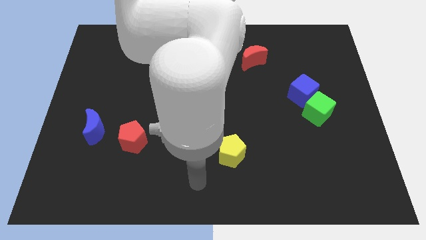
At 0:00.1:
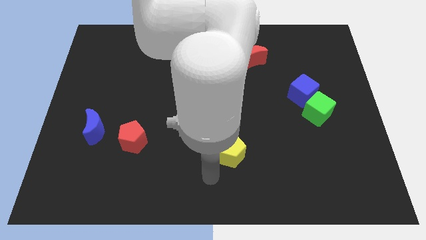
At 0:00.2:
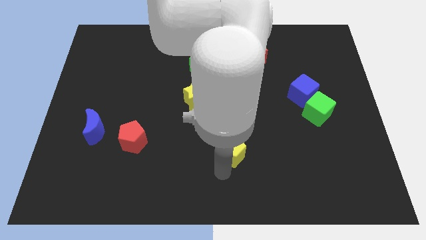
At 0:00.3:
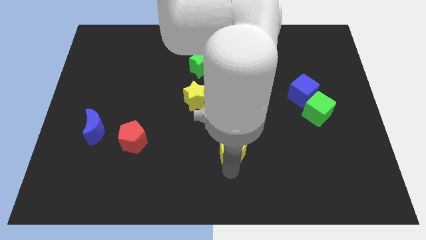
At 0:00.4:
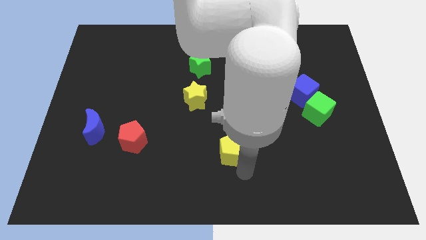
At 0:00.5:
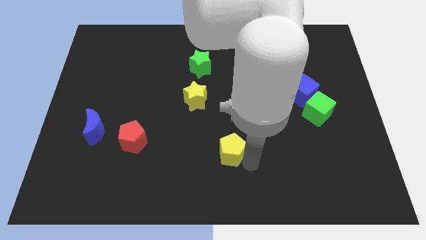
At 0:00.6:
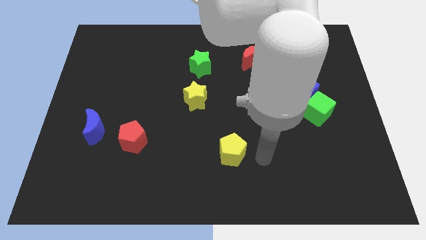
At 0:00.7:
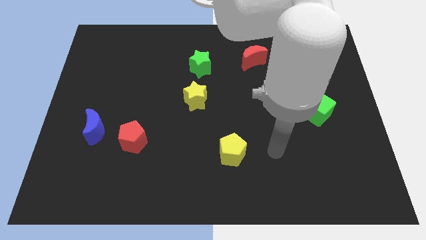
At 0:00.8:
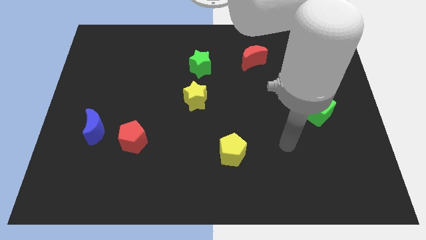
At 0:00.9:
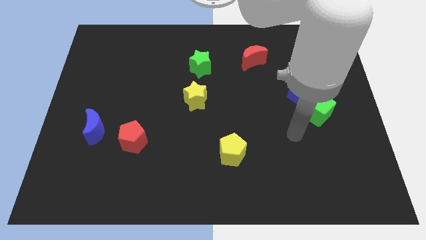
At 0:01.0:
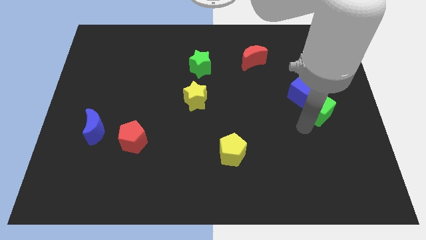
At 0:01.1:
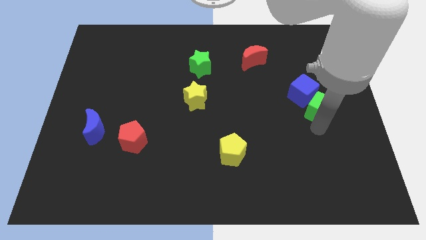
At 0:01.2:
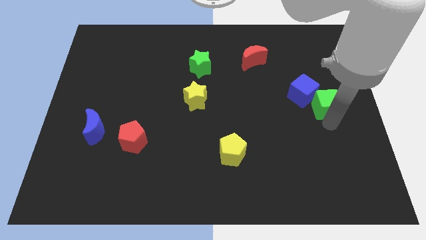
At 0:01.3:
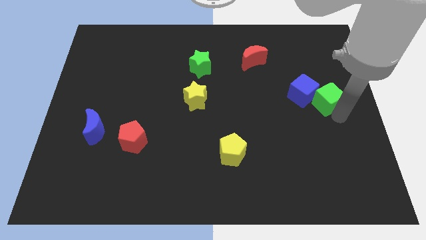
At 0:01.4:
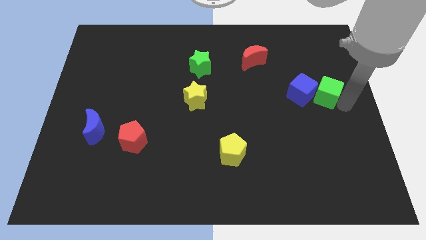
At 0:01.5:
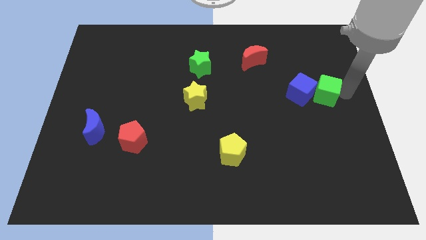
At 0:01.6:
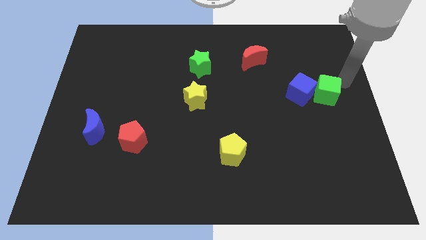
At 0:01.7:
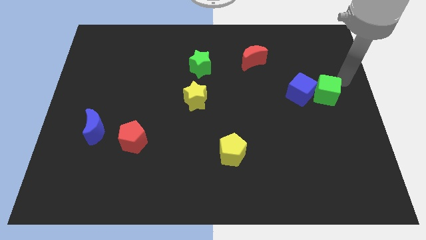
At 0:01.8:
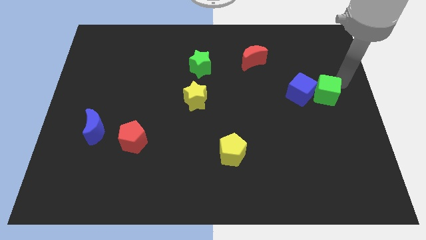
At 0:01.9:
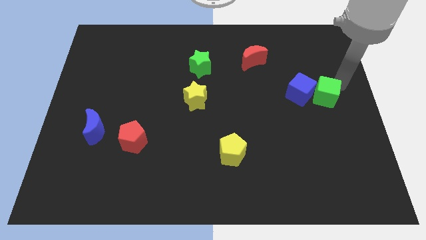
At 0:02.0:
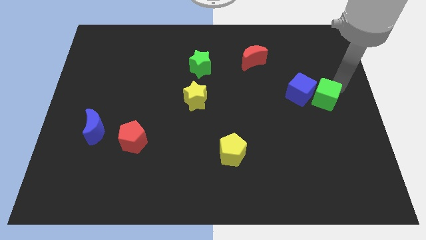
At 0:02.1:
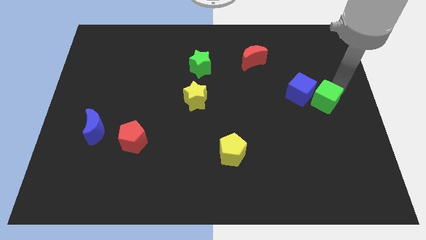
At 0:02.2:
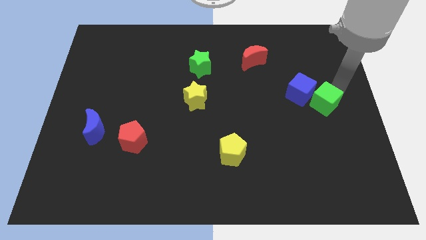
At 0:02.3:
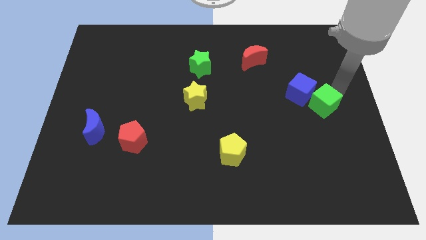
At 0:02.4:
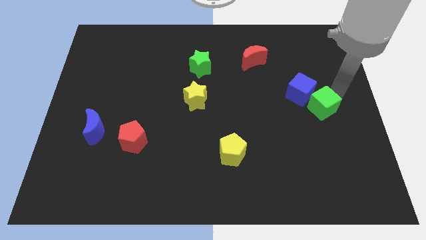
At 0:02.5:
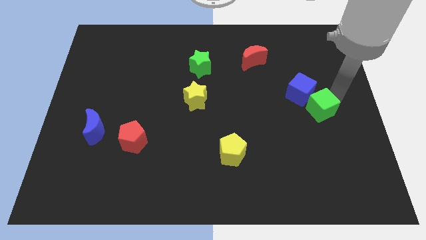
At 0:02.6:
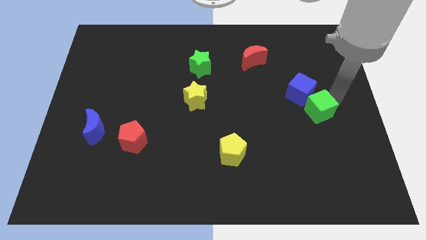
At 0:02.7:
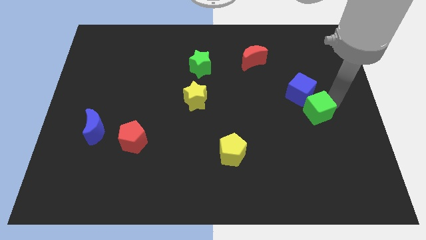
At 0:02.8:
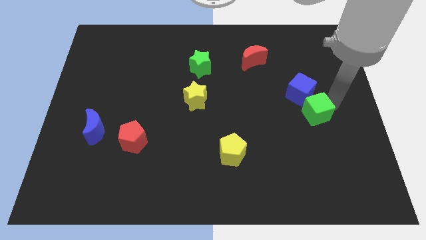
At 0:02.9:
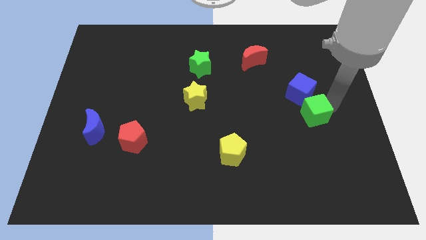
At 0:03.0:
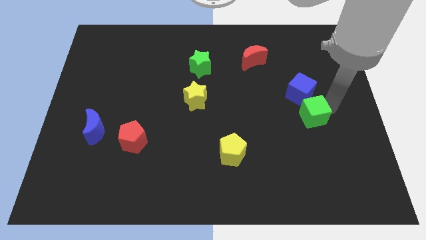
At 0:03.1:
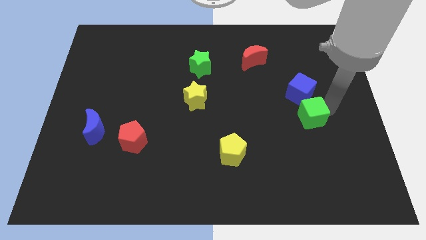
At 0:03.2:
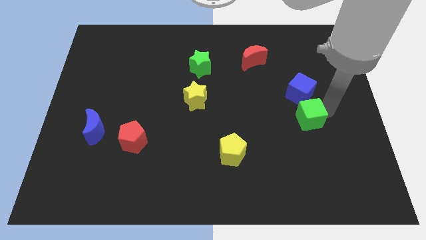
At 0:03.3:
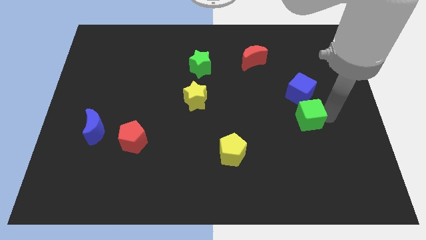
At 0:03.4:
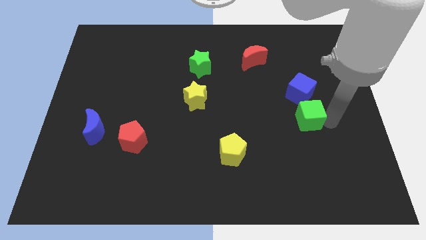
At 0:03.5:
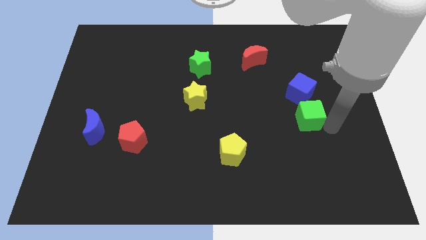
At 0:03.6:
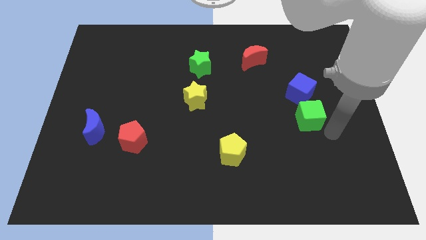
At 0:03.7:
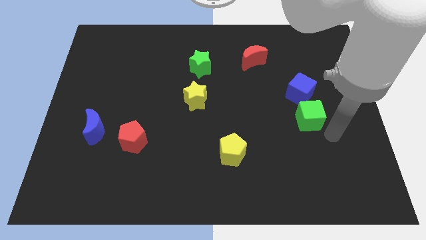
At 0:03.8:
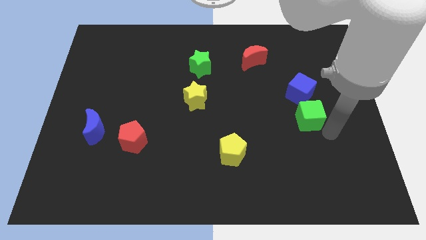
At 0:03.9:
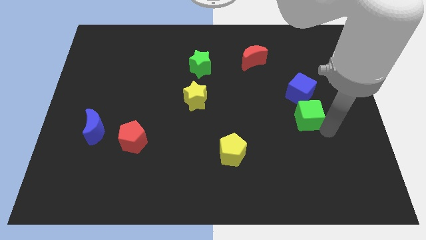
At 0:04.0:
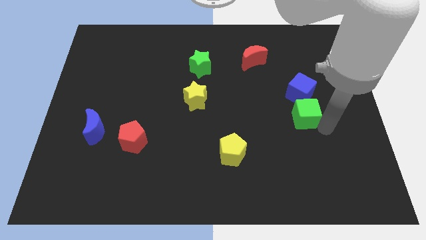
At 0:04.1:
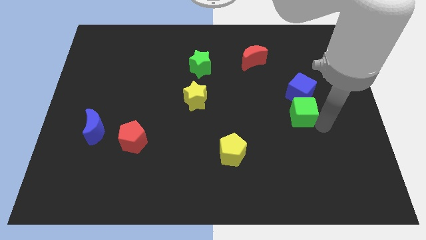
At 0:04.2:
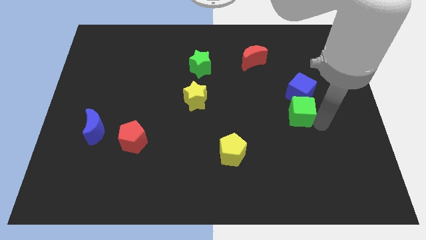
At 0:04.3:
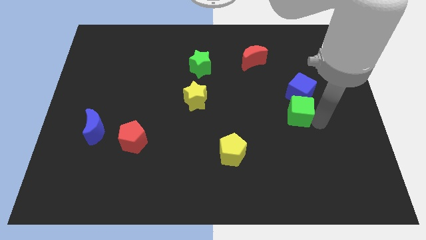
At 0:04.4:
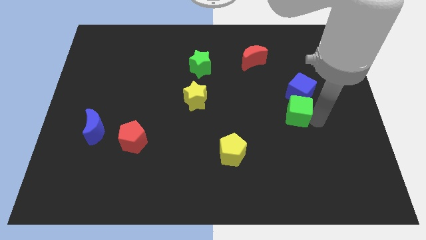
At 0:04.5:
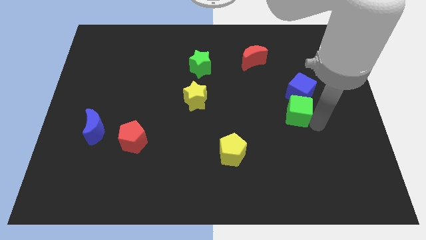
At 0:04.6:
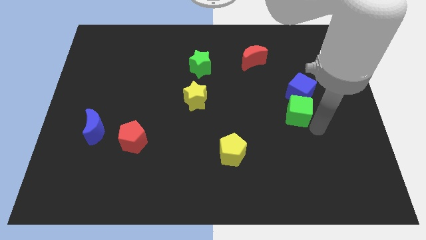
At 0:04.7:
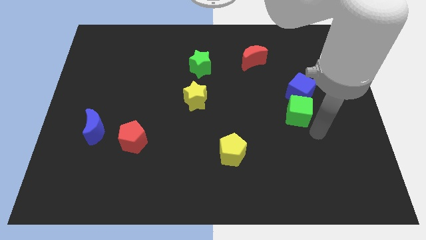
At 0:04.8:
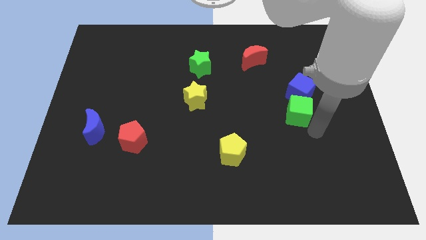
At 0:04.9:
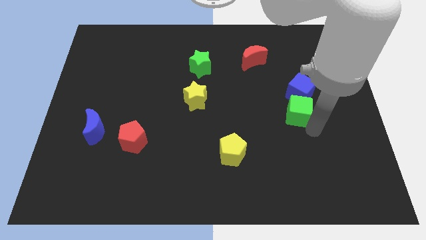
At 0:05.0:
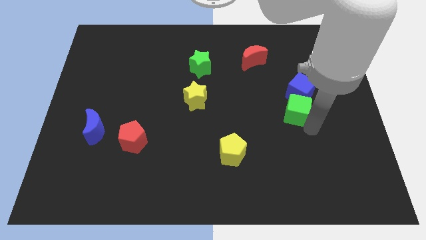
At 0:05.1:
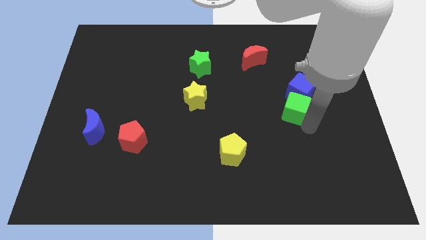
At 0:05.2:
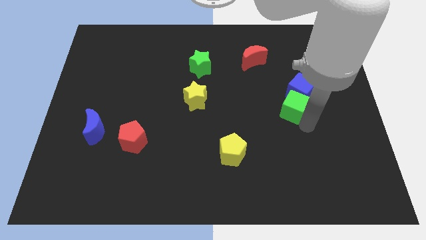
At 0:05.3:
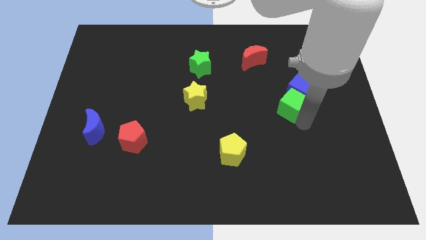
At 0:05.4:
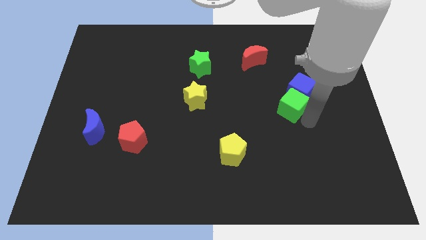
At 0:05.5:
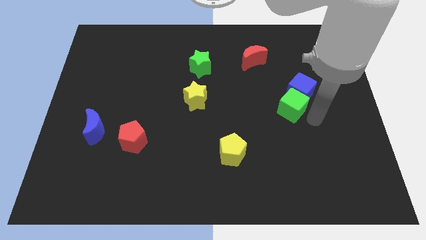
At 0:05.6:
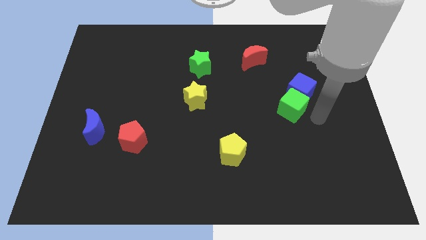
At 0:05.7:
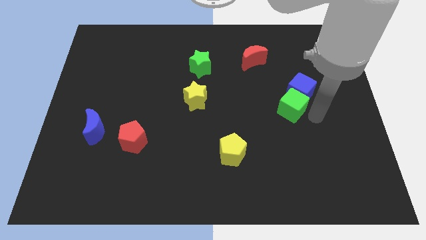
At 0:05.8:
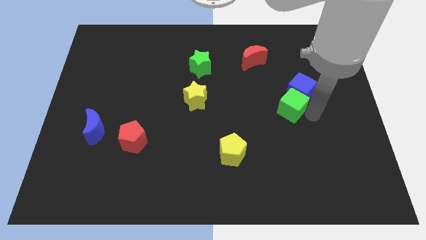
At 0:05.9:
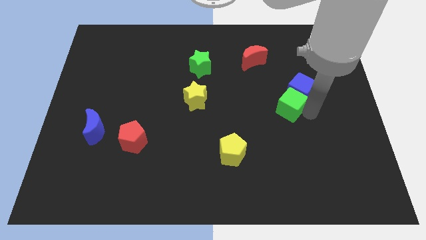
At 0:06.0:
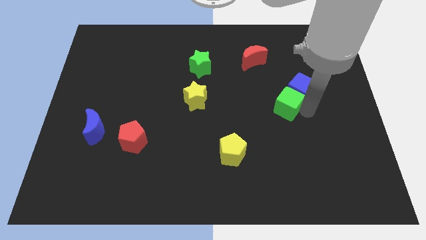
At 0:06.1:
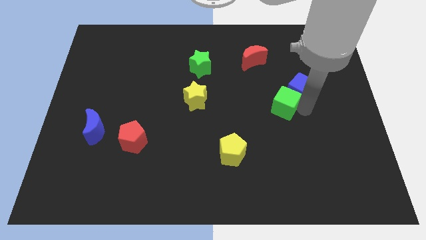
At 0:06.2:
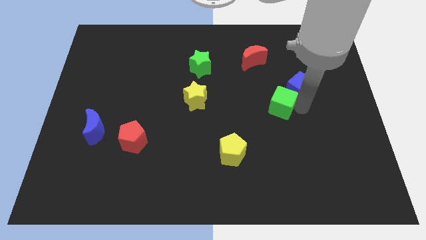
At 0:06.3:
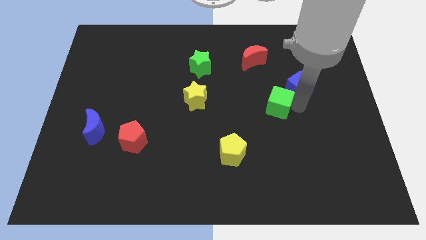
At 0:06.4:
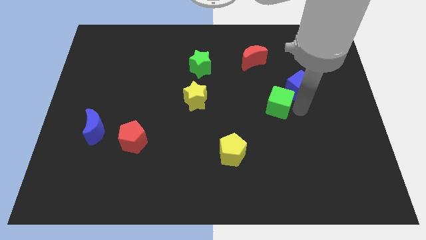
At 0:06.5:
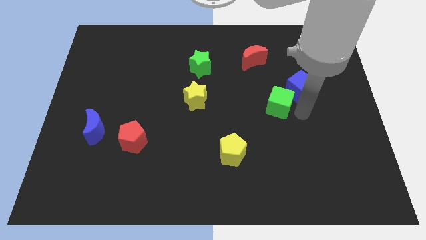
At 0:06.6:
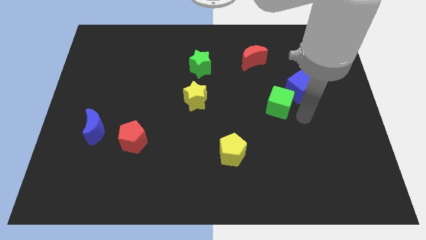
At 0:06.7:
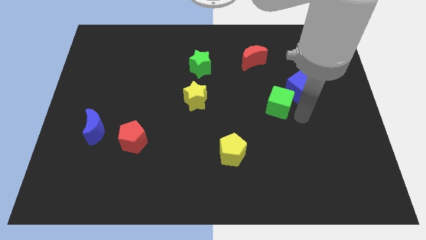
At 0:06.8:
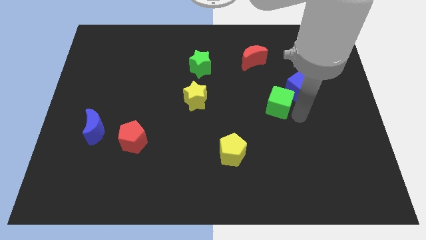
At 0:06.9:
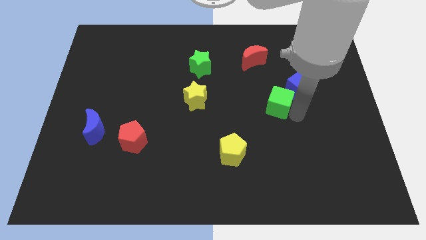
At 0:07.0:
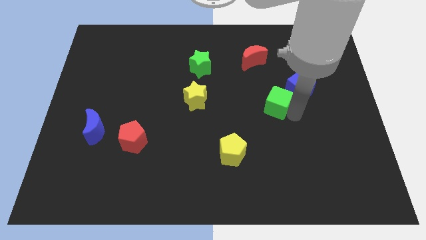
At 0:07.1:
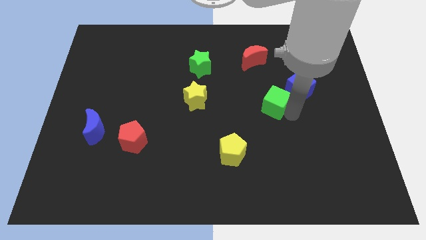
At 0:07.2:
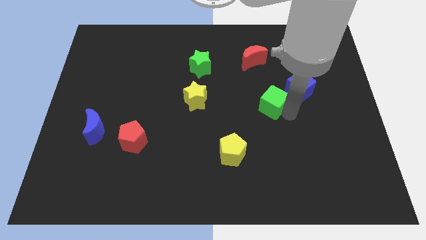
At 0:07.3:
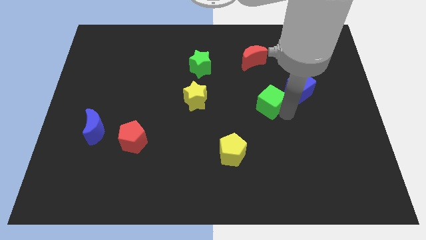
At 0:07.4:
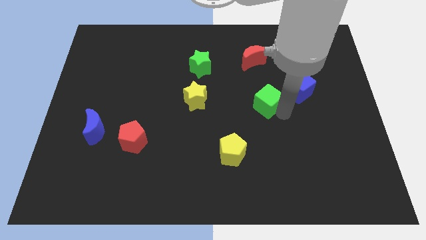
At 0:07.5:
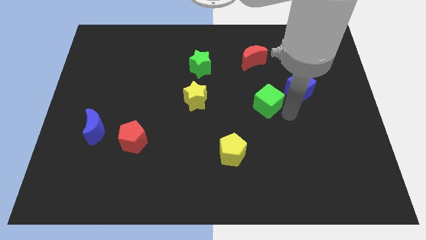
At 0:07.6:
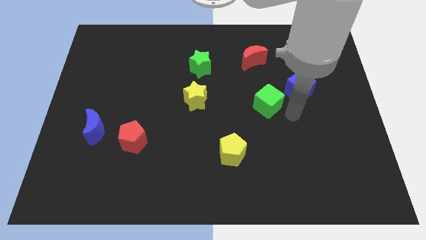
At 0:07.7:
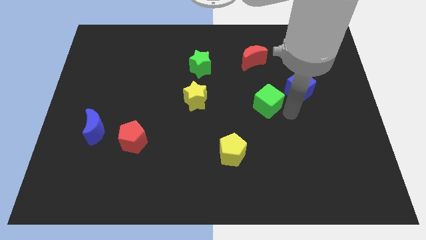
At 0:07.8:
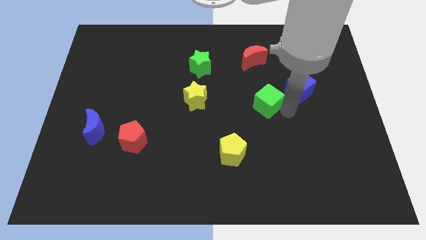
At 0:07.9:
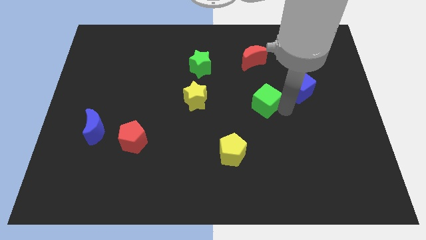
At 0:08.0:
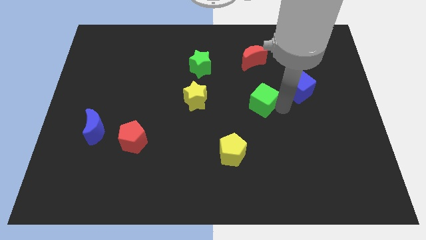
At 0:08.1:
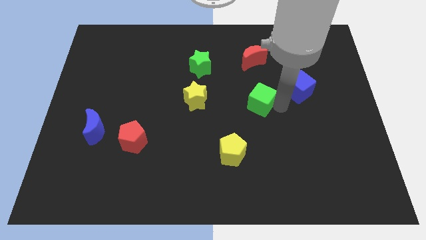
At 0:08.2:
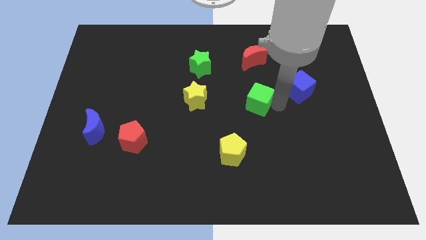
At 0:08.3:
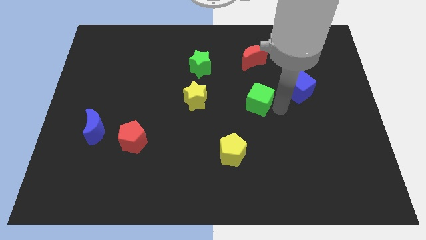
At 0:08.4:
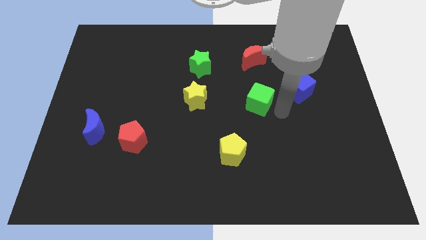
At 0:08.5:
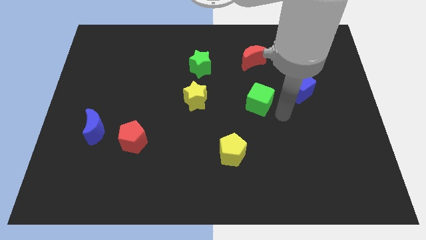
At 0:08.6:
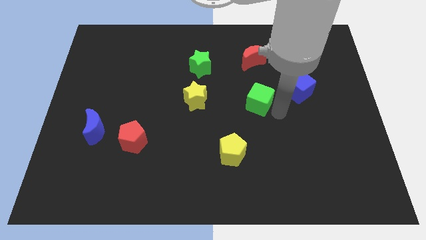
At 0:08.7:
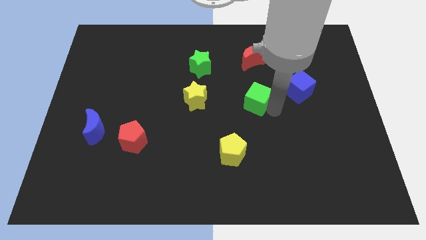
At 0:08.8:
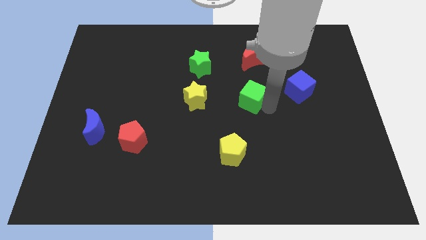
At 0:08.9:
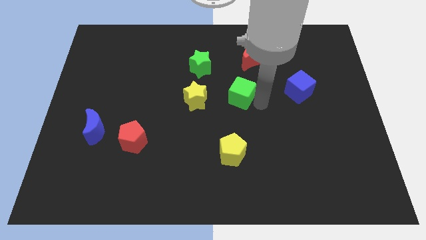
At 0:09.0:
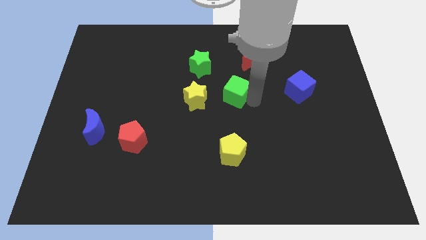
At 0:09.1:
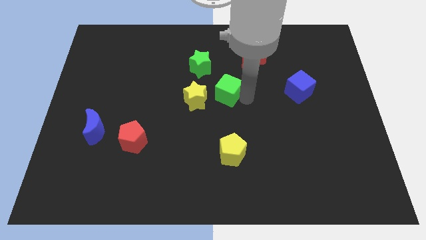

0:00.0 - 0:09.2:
push the green cube diagonally up and to the right of the yellow star
